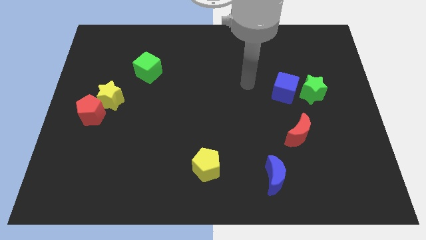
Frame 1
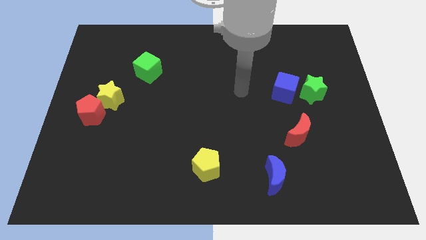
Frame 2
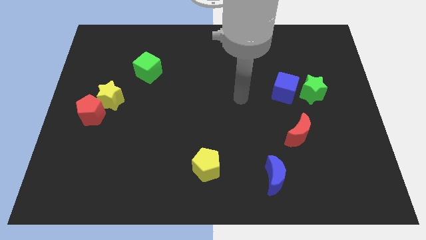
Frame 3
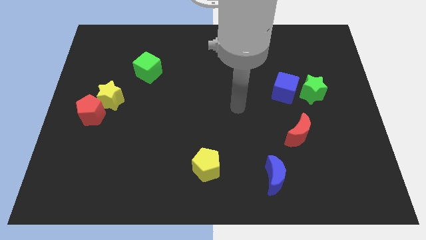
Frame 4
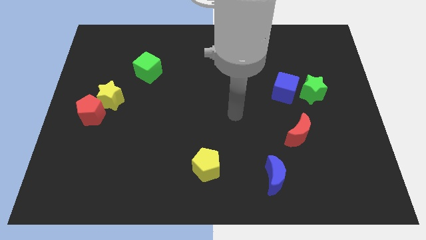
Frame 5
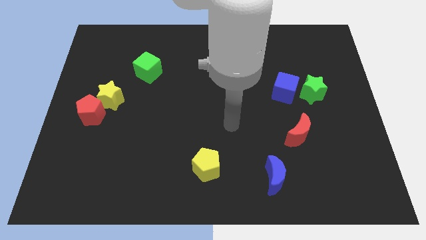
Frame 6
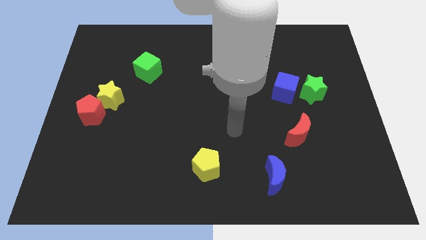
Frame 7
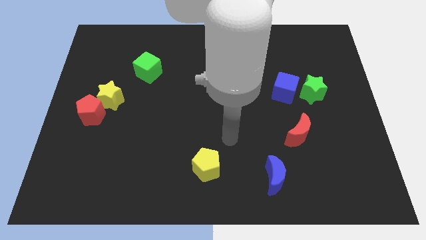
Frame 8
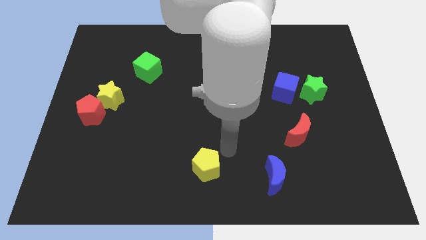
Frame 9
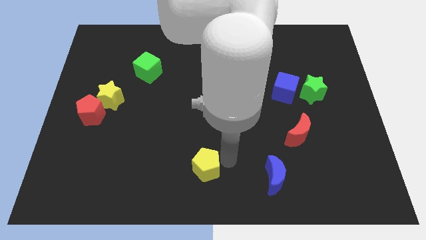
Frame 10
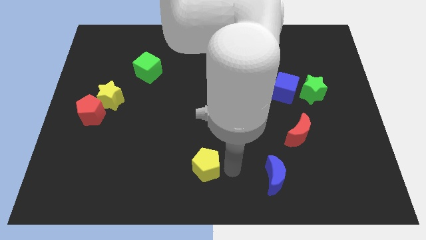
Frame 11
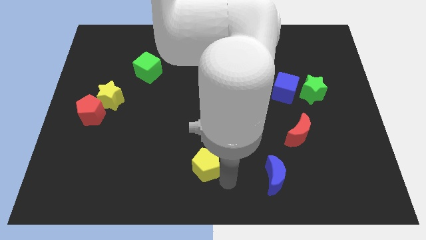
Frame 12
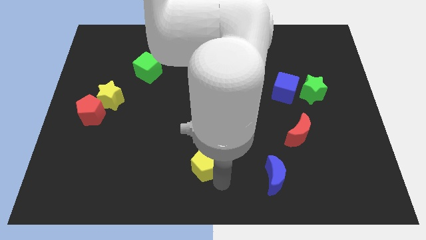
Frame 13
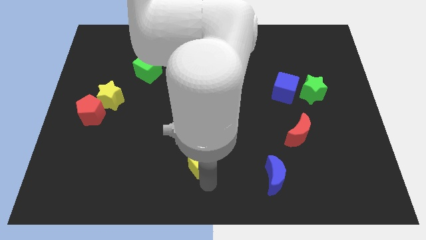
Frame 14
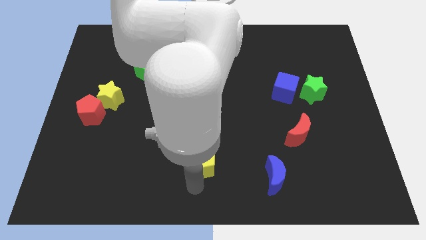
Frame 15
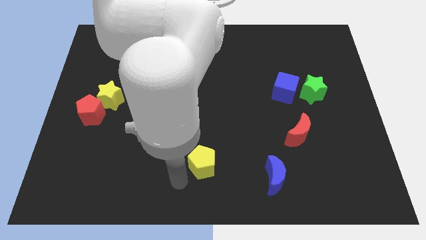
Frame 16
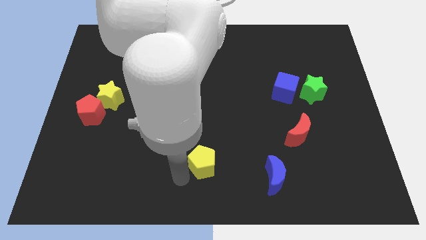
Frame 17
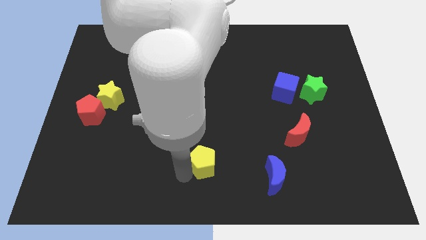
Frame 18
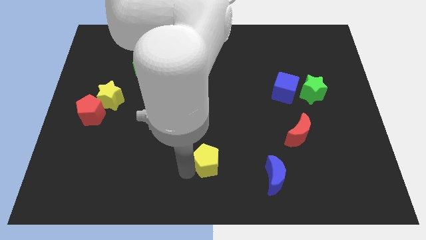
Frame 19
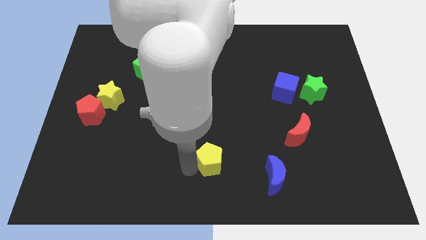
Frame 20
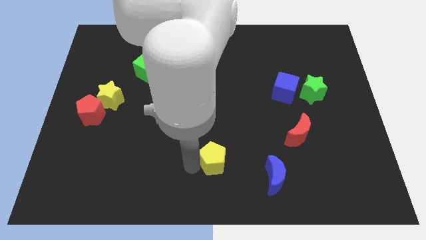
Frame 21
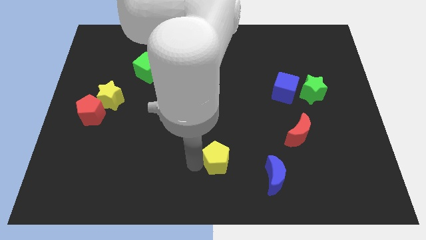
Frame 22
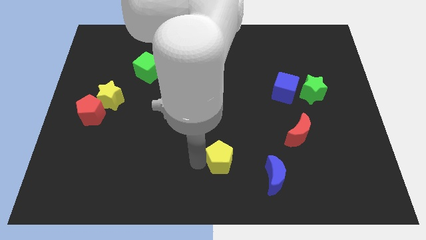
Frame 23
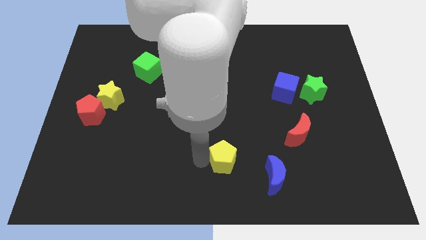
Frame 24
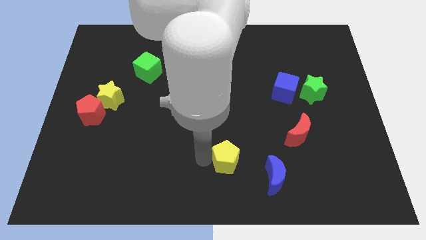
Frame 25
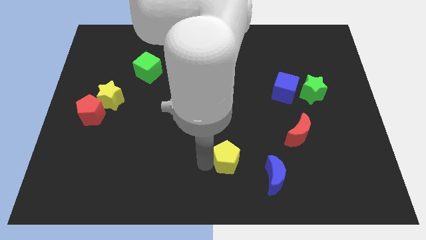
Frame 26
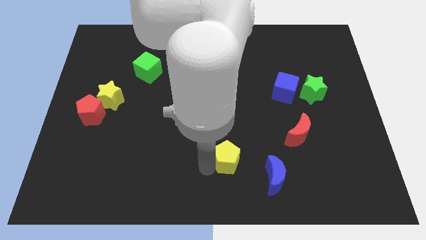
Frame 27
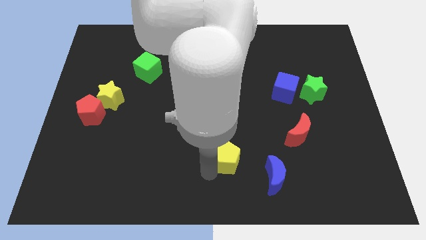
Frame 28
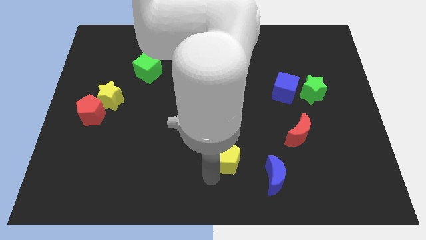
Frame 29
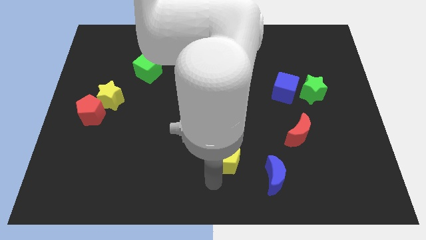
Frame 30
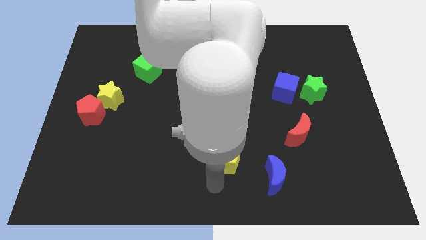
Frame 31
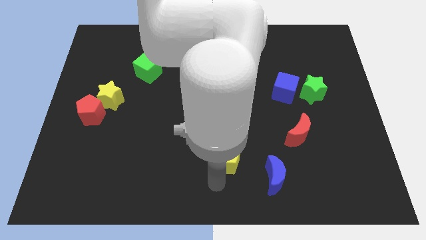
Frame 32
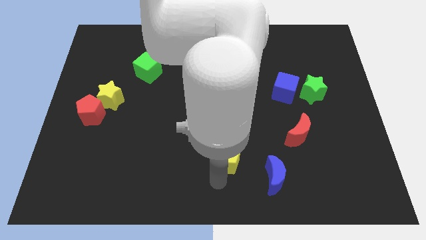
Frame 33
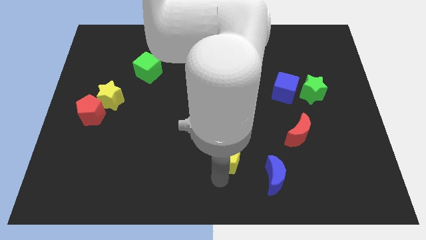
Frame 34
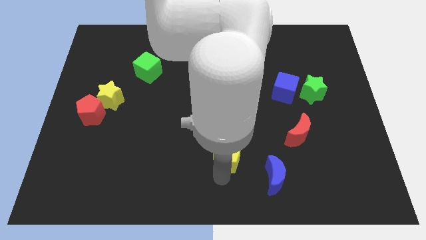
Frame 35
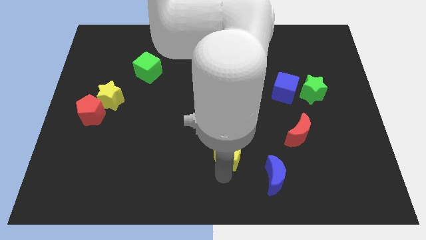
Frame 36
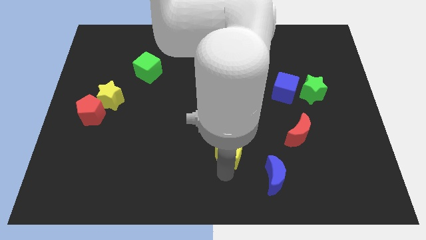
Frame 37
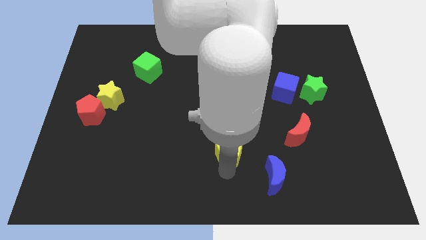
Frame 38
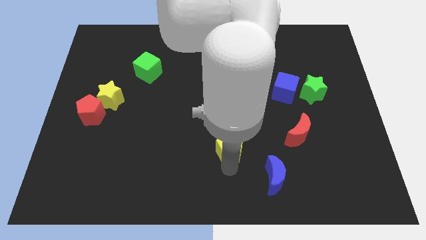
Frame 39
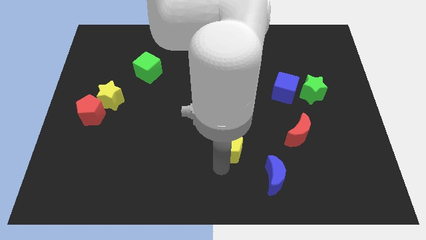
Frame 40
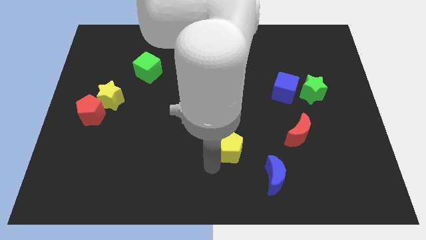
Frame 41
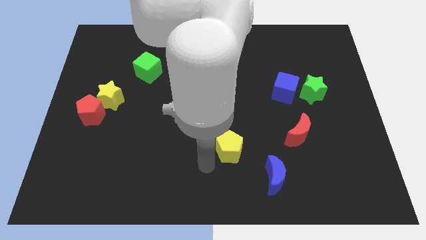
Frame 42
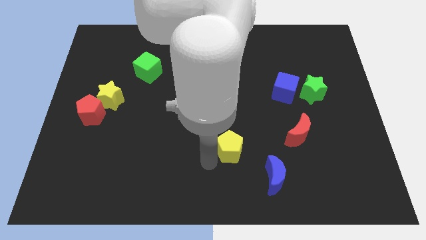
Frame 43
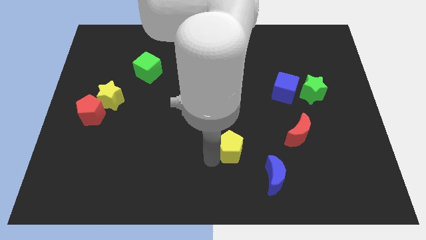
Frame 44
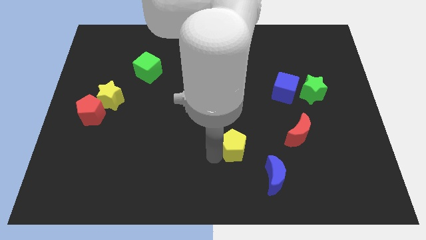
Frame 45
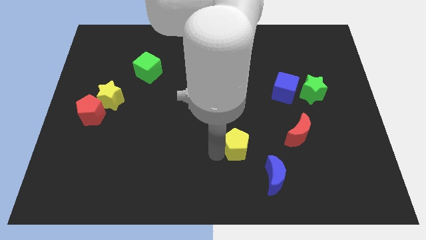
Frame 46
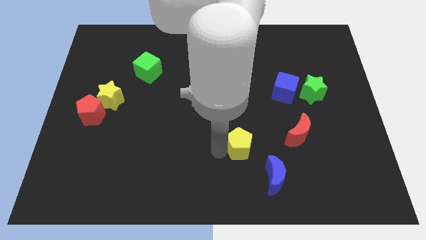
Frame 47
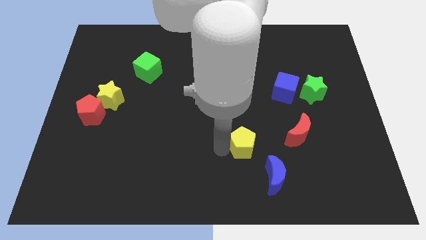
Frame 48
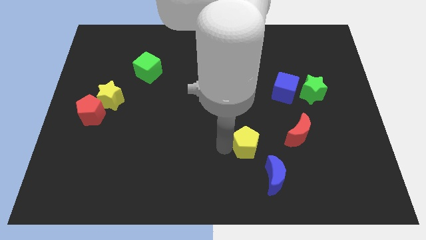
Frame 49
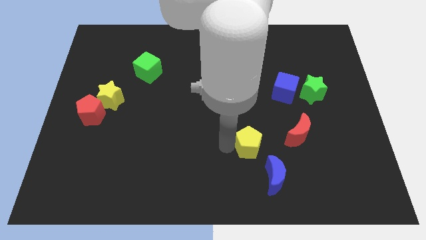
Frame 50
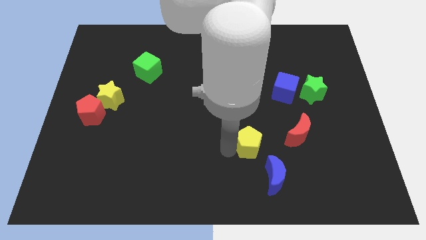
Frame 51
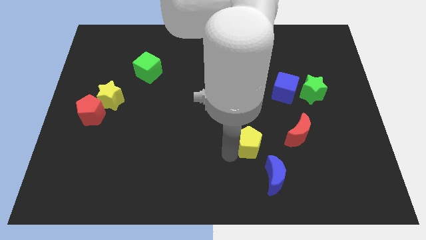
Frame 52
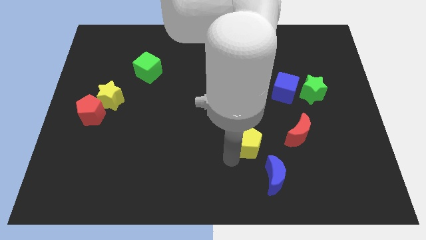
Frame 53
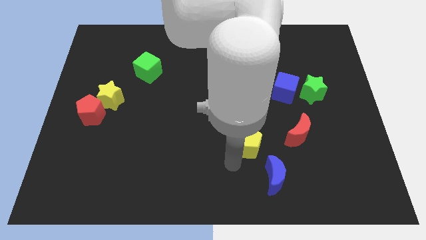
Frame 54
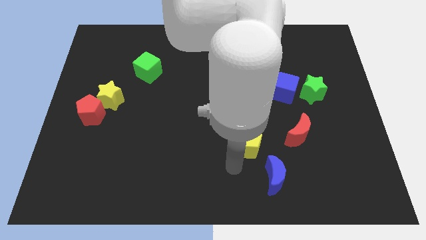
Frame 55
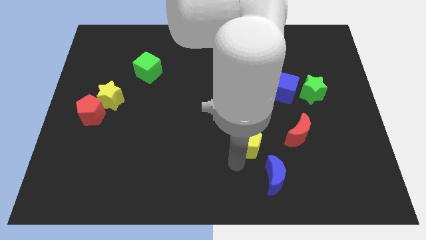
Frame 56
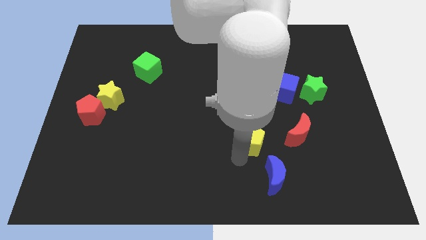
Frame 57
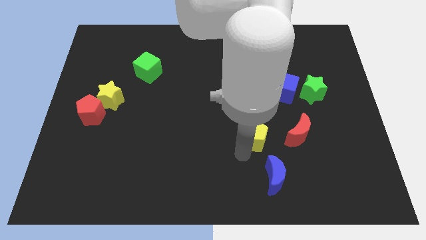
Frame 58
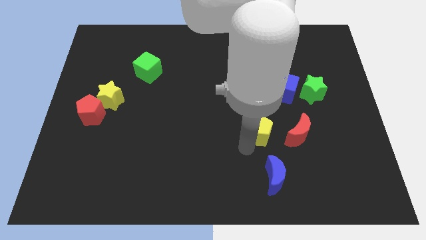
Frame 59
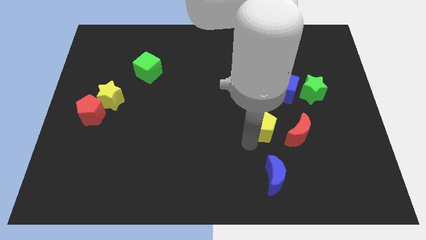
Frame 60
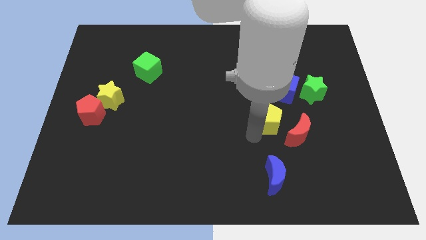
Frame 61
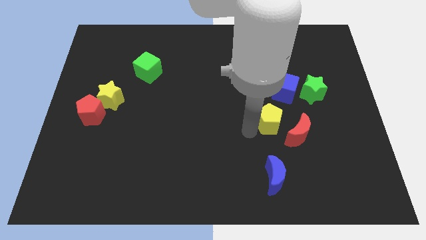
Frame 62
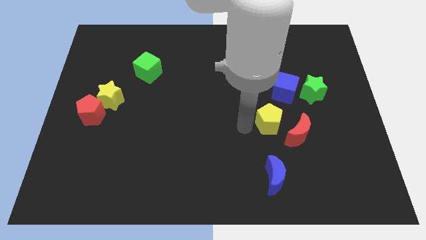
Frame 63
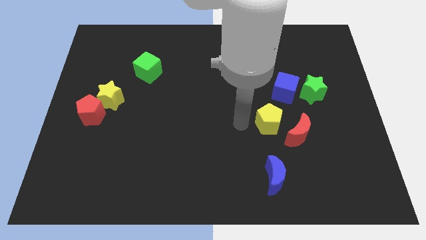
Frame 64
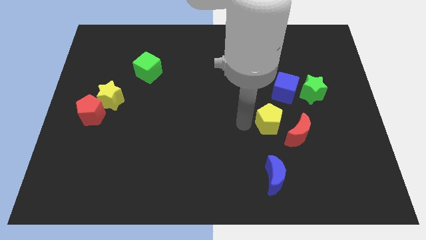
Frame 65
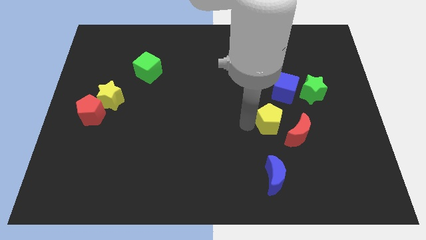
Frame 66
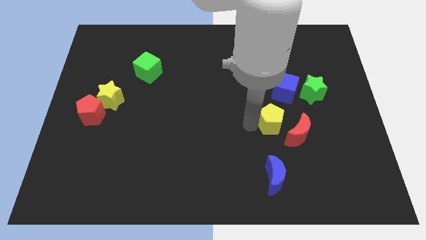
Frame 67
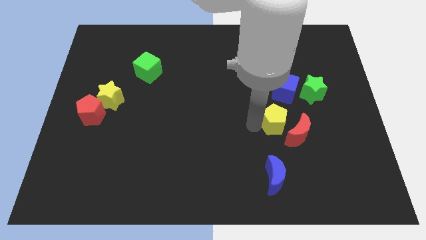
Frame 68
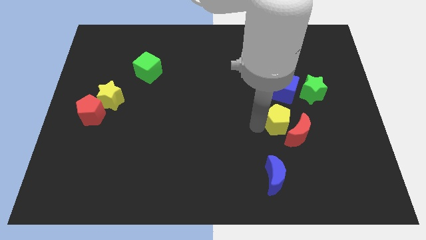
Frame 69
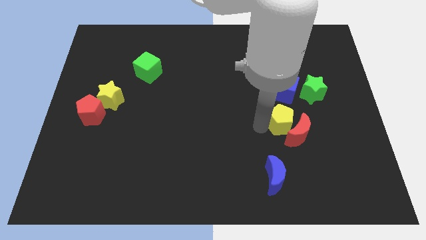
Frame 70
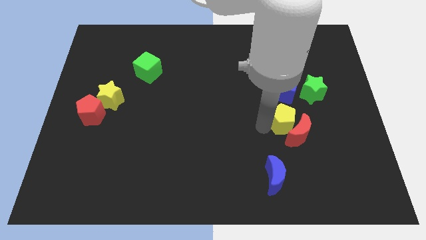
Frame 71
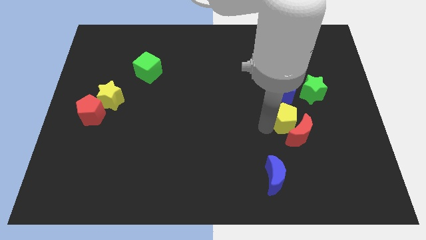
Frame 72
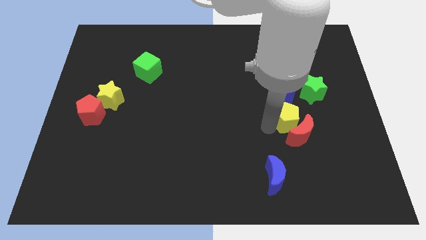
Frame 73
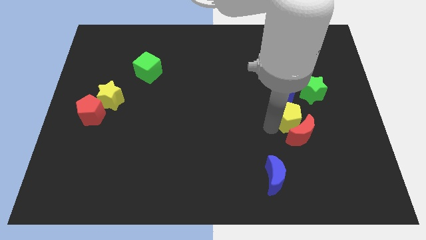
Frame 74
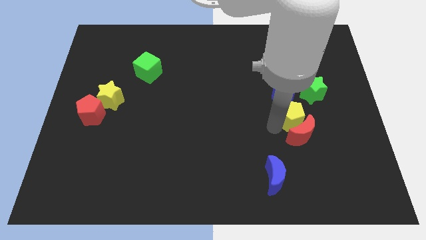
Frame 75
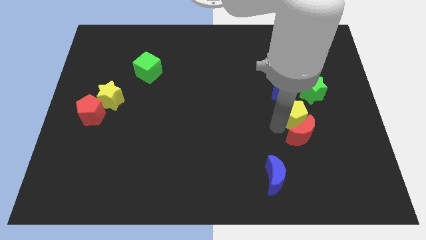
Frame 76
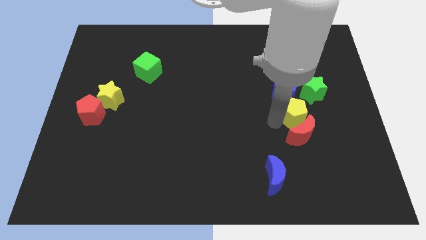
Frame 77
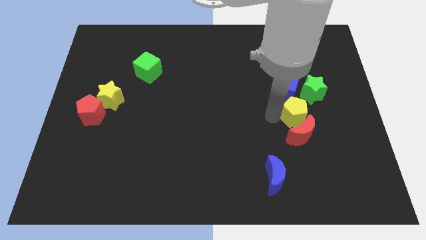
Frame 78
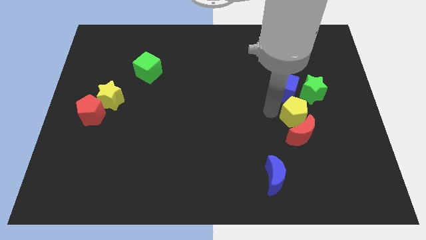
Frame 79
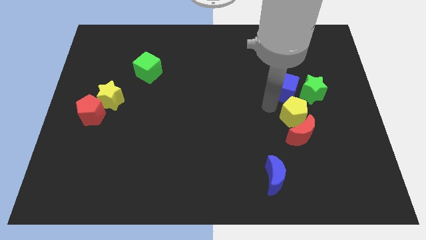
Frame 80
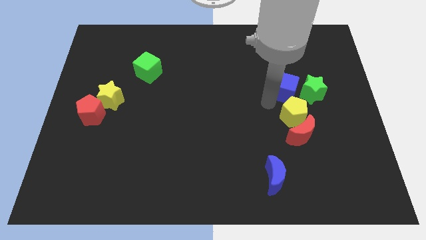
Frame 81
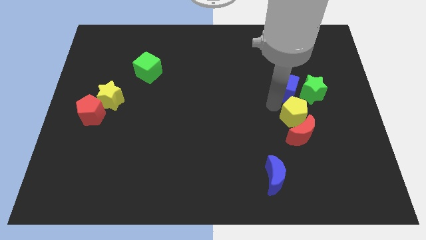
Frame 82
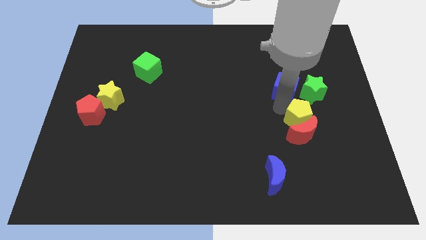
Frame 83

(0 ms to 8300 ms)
move the yellow pentagon below the green star
